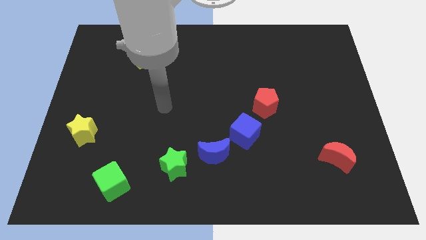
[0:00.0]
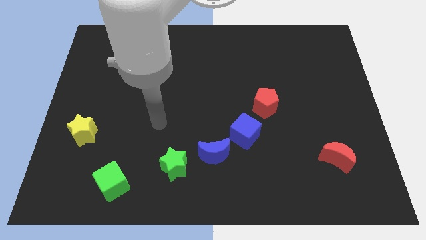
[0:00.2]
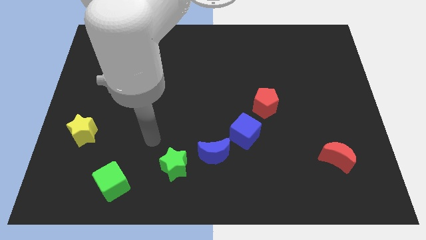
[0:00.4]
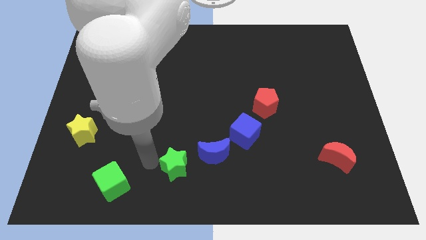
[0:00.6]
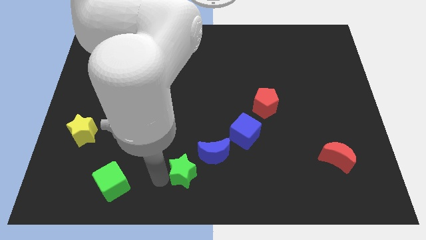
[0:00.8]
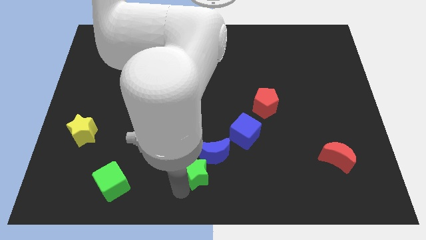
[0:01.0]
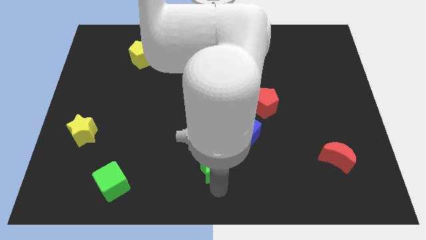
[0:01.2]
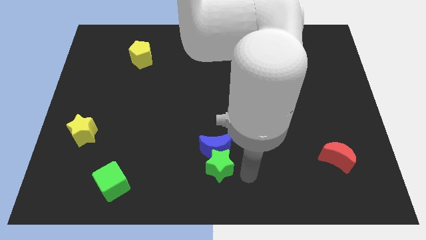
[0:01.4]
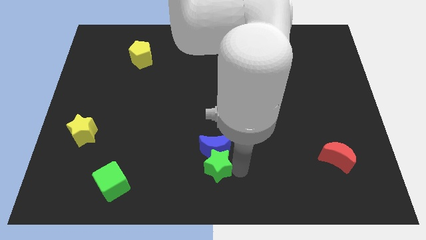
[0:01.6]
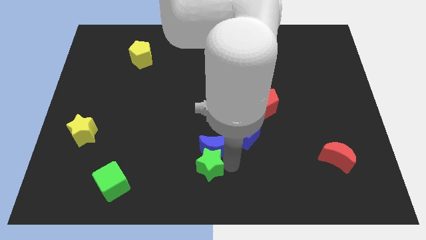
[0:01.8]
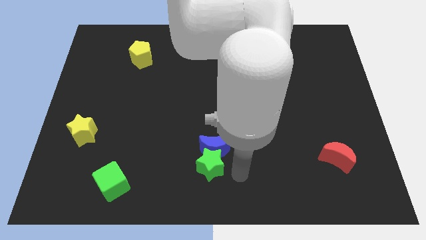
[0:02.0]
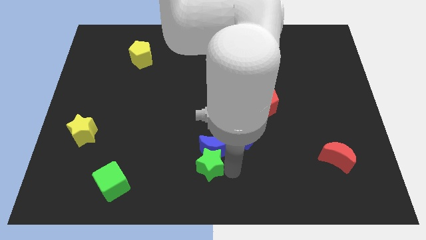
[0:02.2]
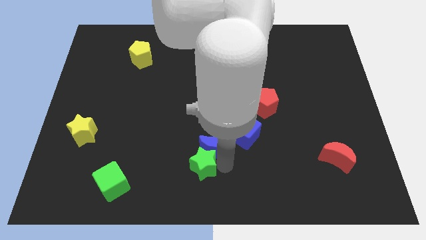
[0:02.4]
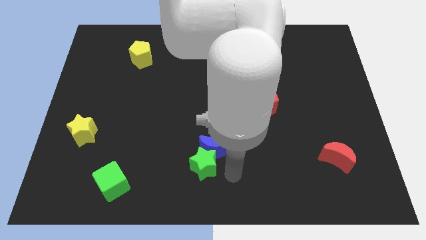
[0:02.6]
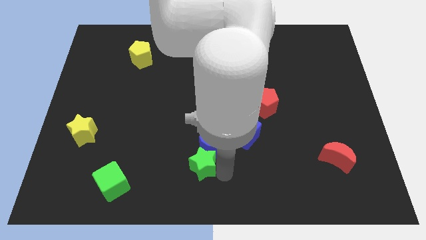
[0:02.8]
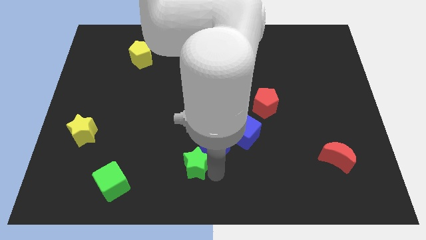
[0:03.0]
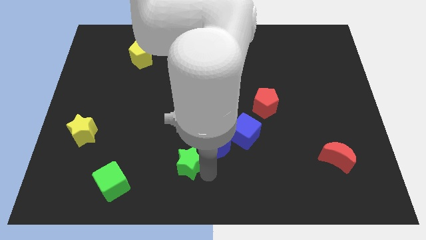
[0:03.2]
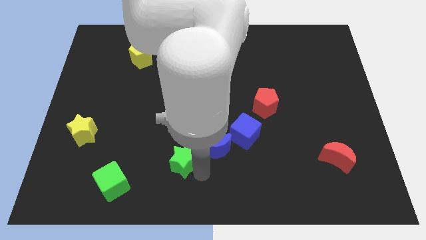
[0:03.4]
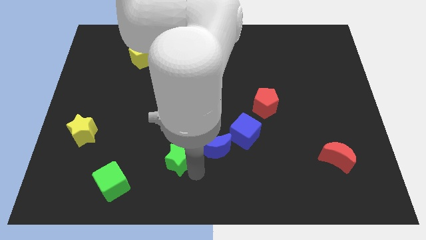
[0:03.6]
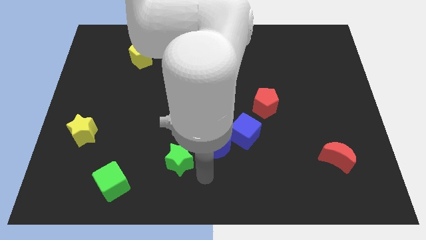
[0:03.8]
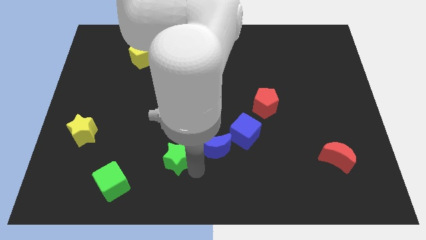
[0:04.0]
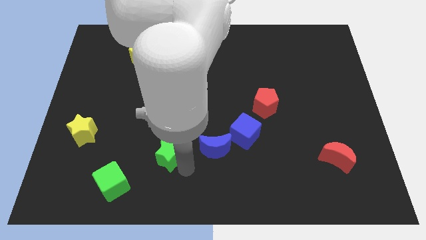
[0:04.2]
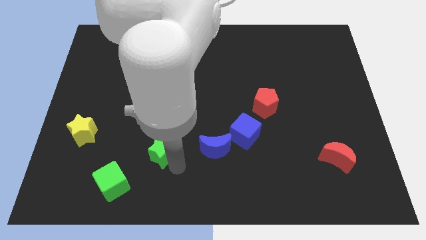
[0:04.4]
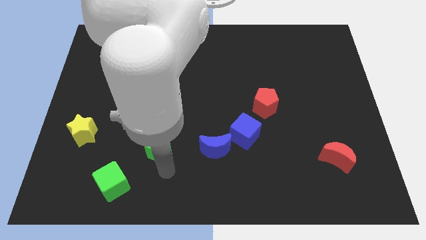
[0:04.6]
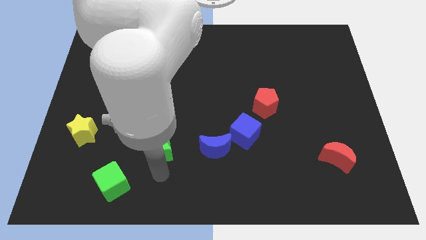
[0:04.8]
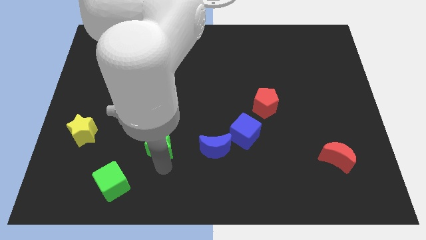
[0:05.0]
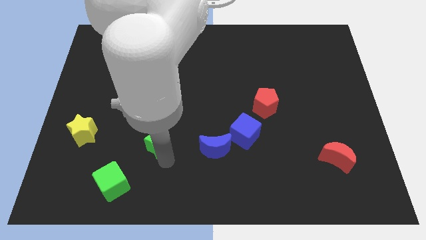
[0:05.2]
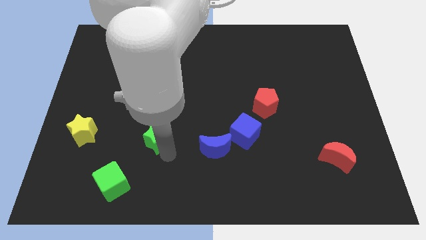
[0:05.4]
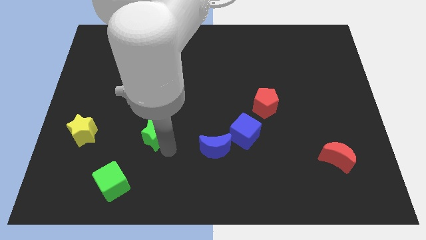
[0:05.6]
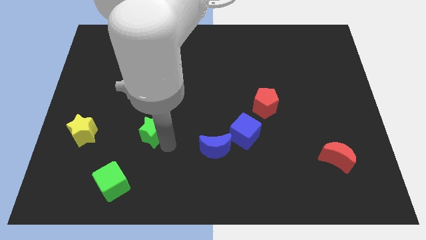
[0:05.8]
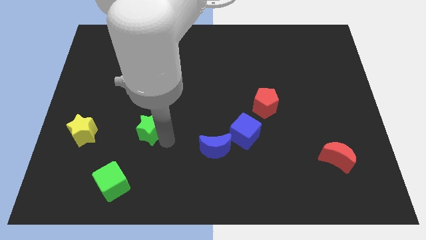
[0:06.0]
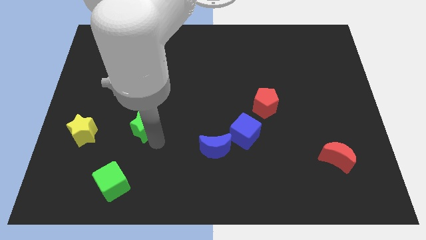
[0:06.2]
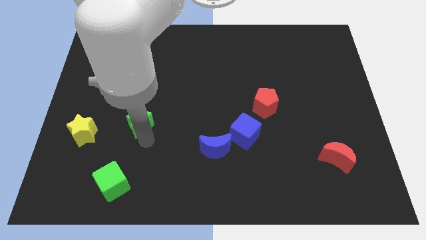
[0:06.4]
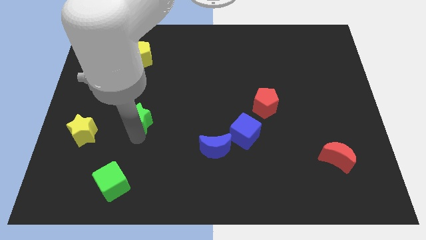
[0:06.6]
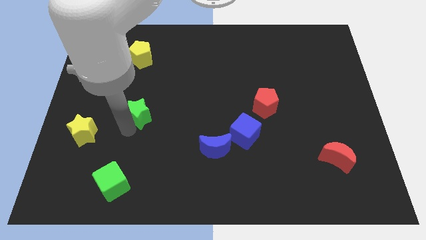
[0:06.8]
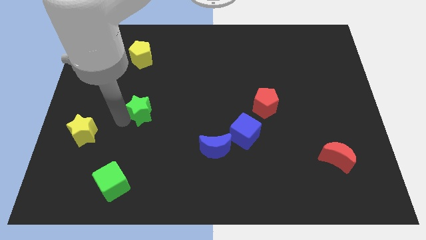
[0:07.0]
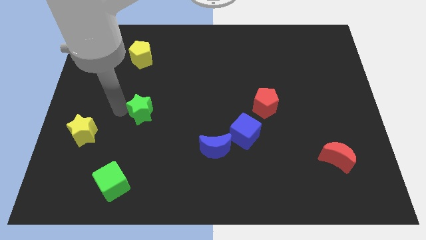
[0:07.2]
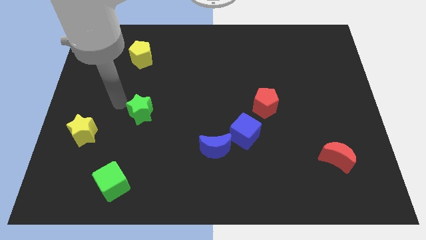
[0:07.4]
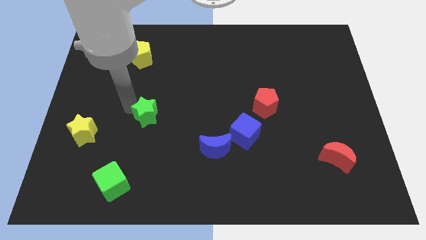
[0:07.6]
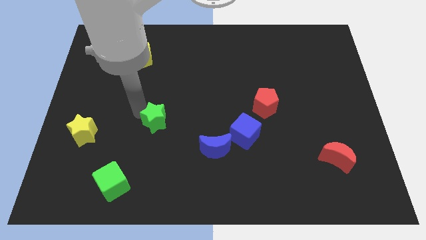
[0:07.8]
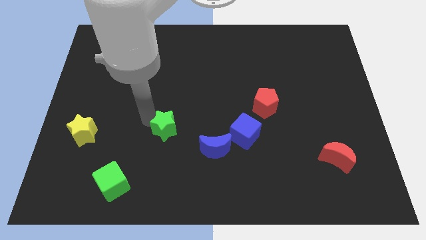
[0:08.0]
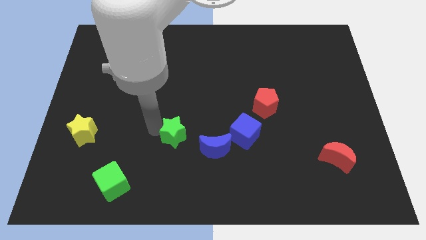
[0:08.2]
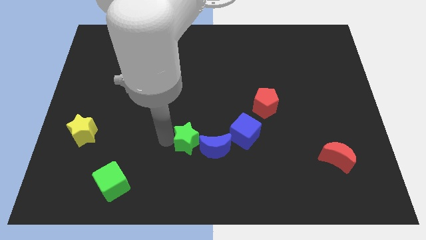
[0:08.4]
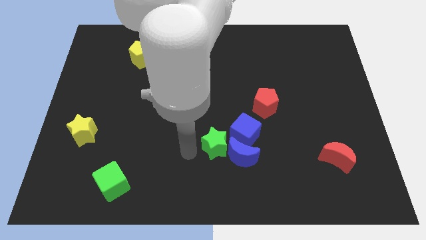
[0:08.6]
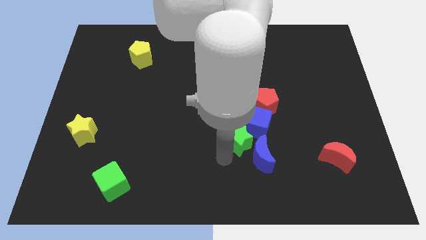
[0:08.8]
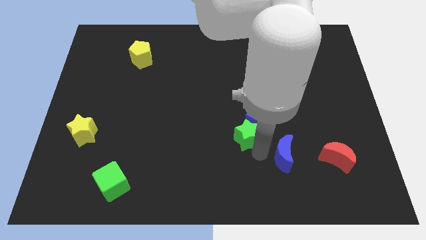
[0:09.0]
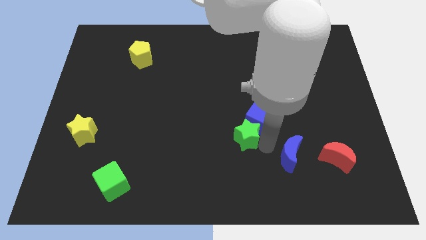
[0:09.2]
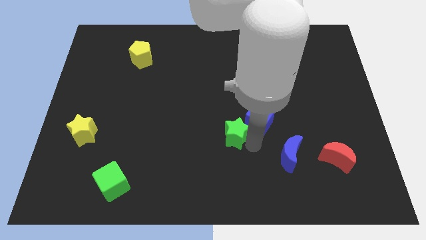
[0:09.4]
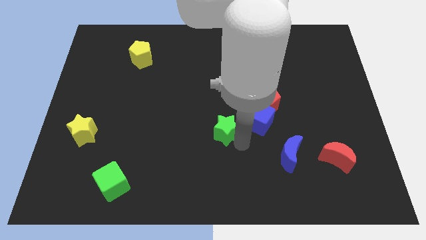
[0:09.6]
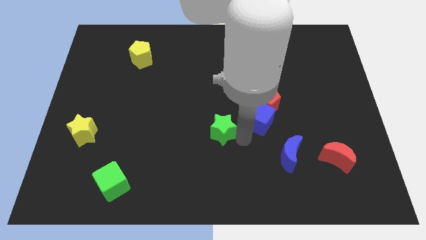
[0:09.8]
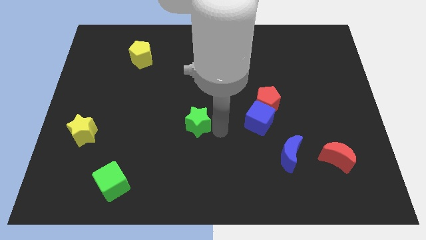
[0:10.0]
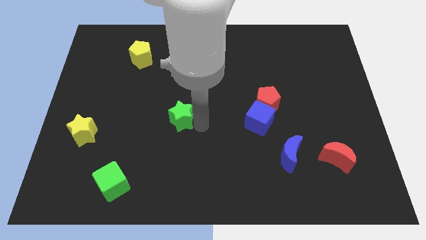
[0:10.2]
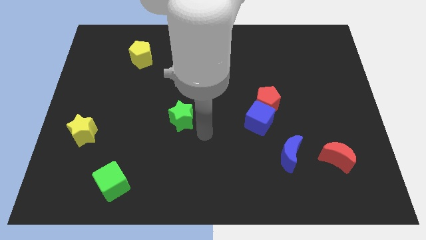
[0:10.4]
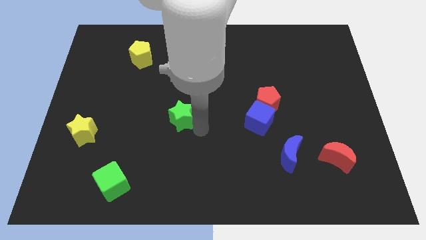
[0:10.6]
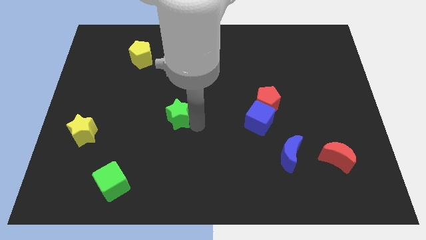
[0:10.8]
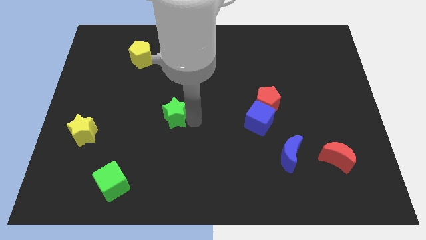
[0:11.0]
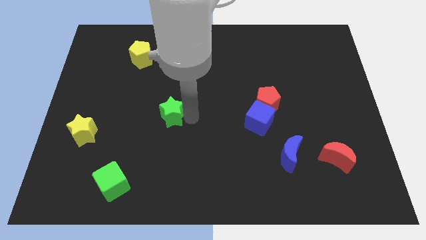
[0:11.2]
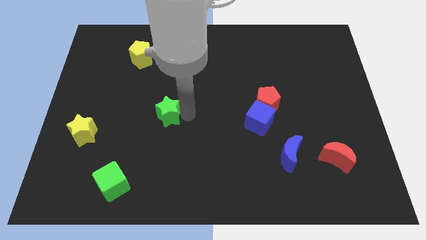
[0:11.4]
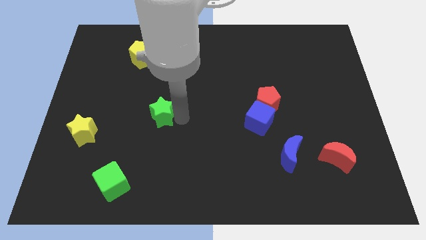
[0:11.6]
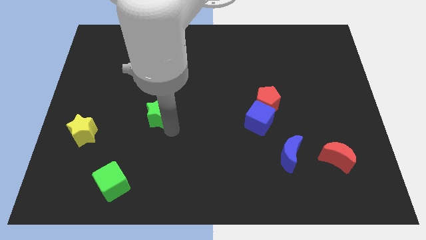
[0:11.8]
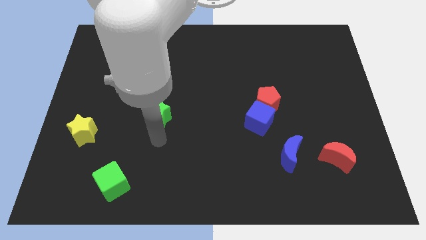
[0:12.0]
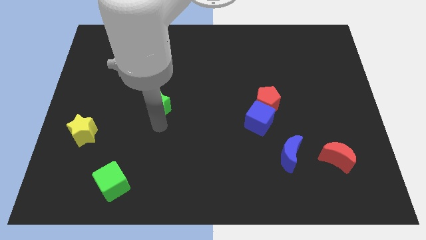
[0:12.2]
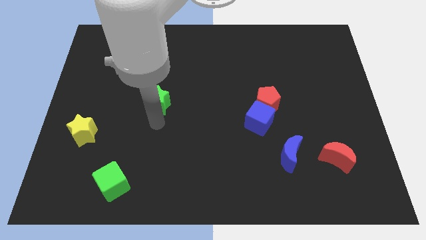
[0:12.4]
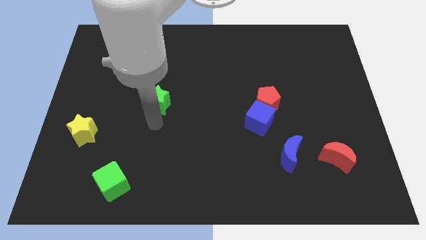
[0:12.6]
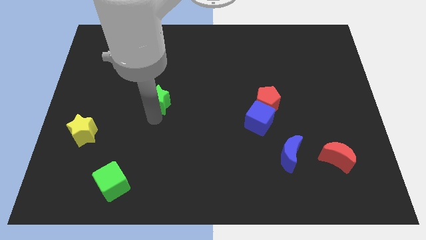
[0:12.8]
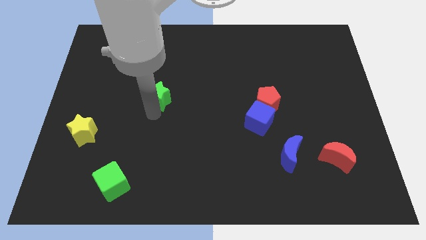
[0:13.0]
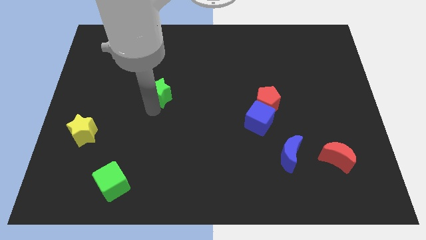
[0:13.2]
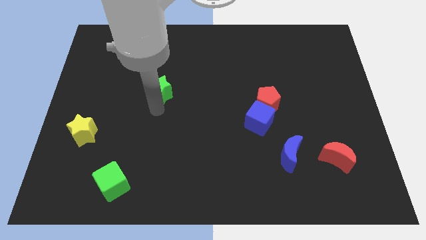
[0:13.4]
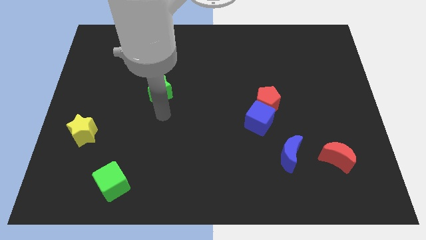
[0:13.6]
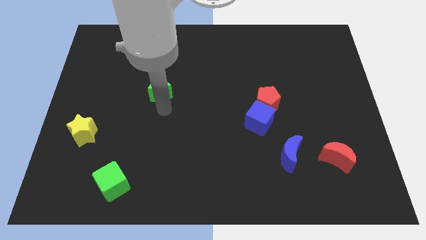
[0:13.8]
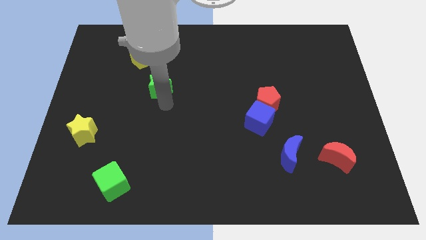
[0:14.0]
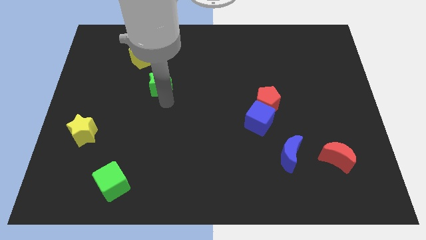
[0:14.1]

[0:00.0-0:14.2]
slide the green star diagonally down and to the right of the yellow pentagon
